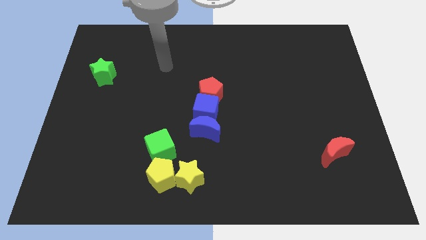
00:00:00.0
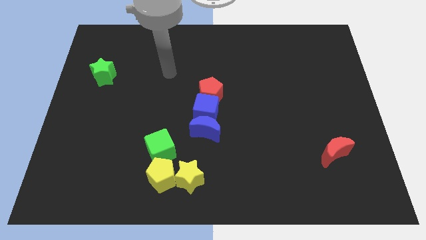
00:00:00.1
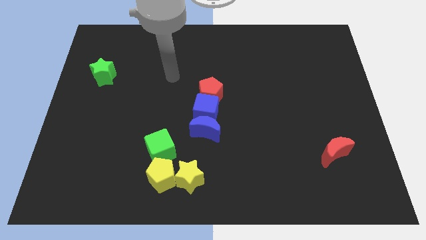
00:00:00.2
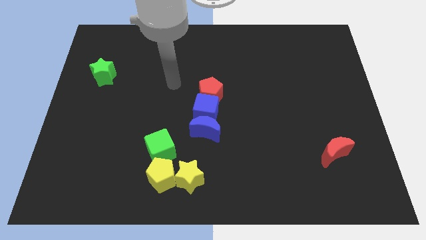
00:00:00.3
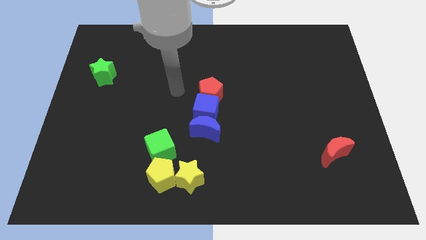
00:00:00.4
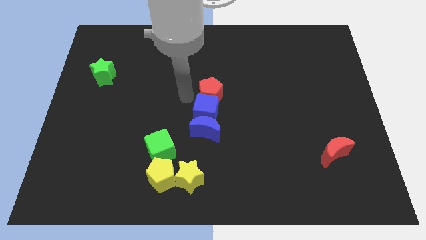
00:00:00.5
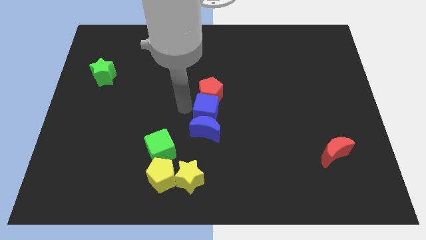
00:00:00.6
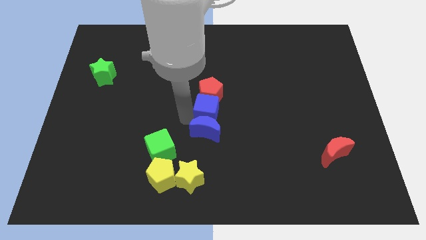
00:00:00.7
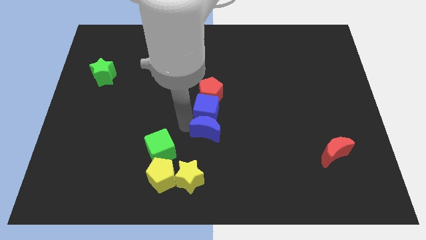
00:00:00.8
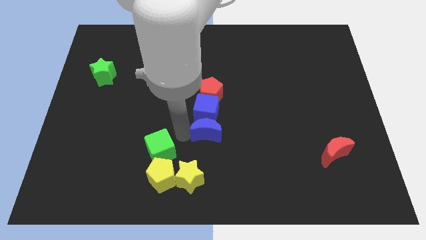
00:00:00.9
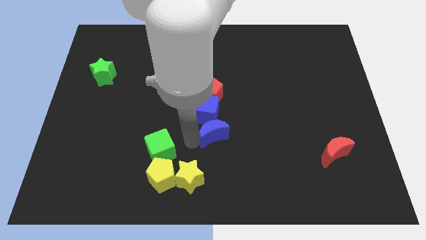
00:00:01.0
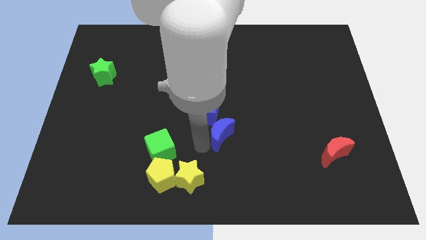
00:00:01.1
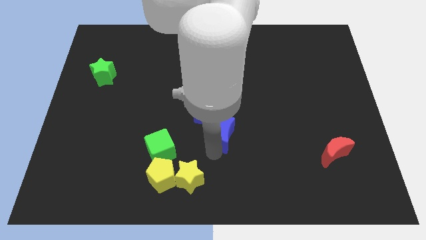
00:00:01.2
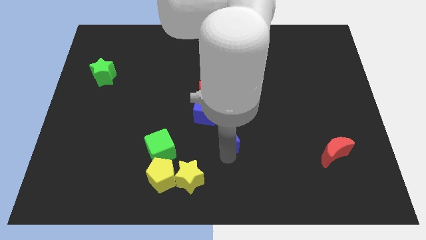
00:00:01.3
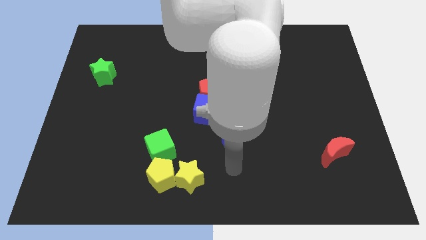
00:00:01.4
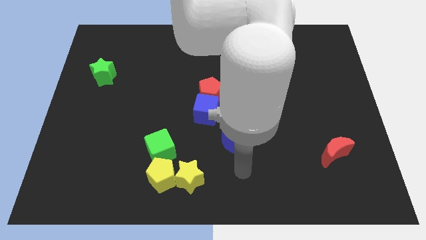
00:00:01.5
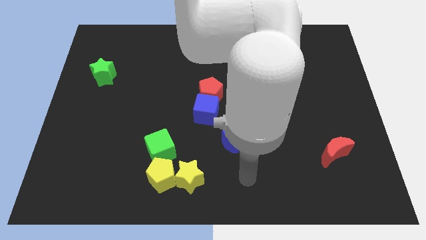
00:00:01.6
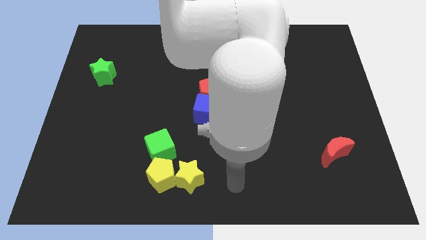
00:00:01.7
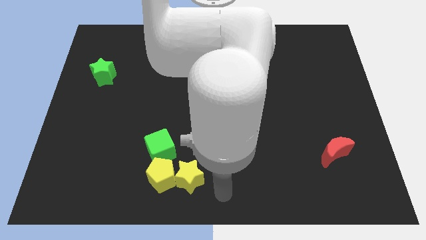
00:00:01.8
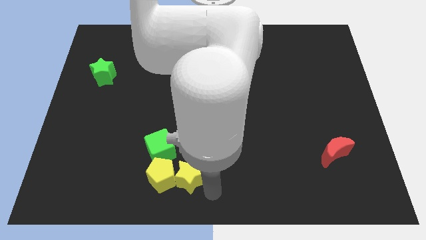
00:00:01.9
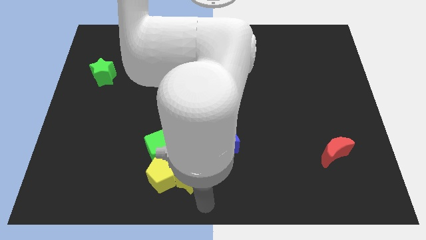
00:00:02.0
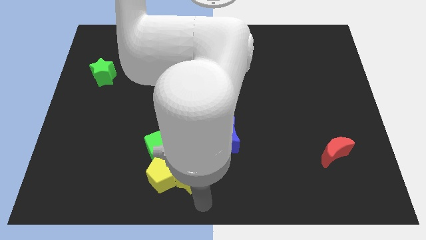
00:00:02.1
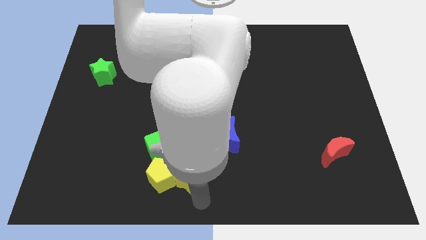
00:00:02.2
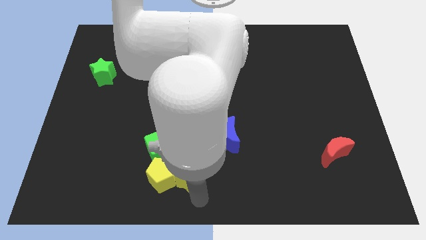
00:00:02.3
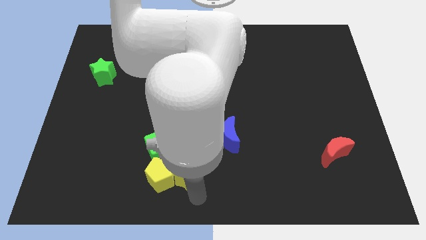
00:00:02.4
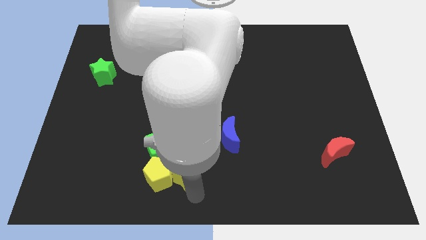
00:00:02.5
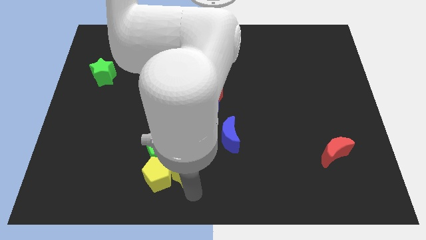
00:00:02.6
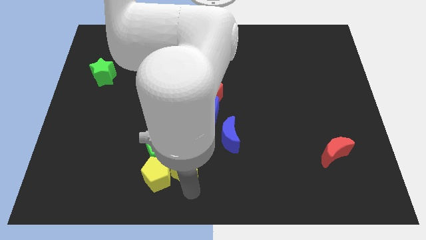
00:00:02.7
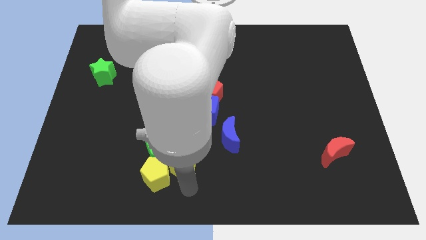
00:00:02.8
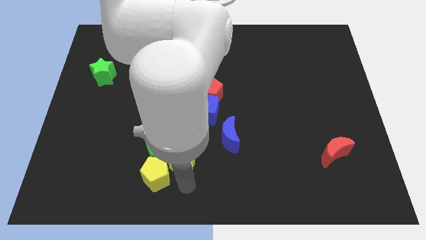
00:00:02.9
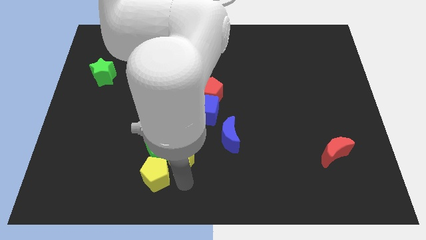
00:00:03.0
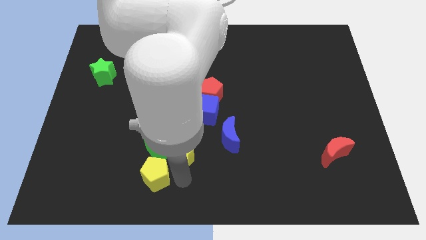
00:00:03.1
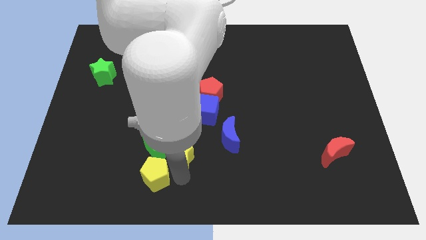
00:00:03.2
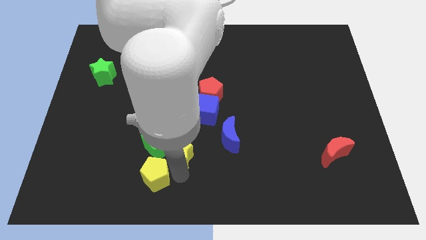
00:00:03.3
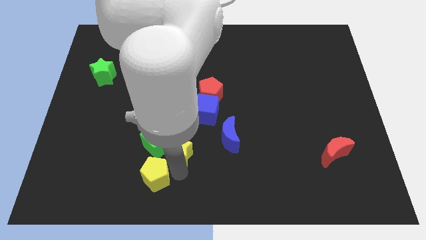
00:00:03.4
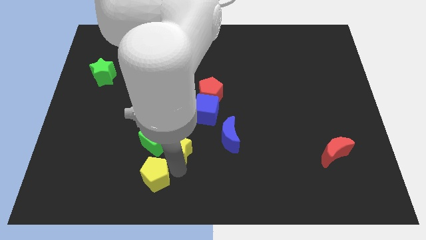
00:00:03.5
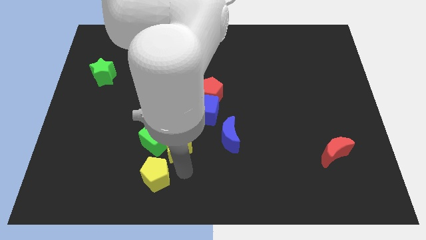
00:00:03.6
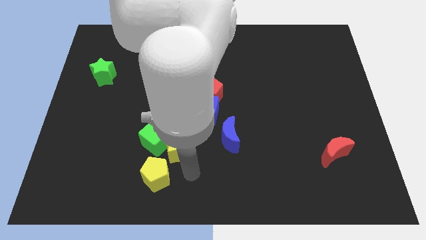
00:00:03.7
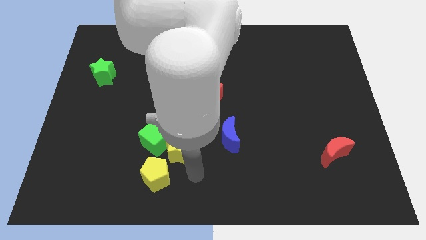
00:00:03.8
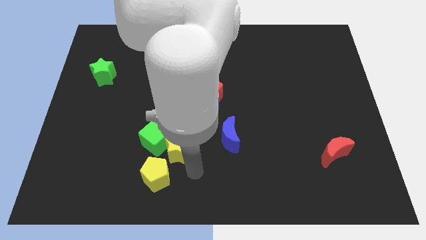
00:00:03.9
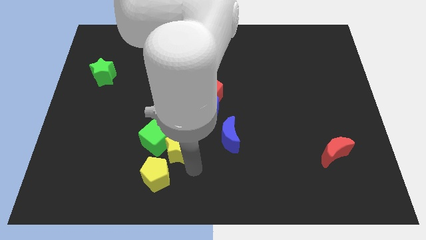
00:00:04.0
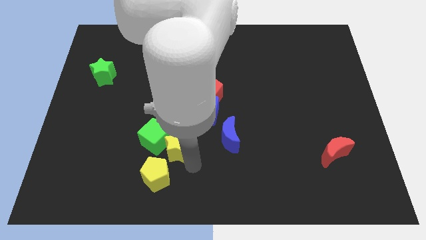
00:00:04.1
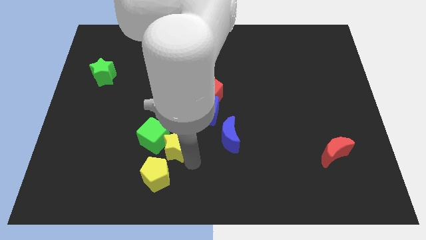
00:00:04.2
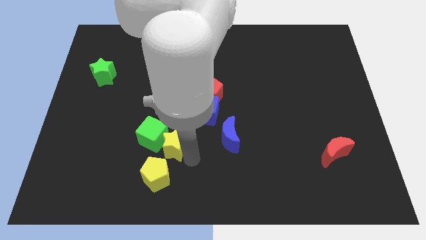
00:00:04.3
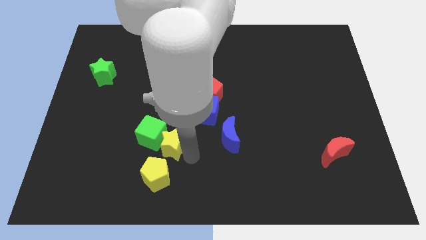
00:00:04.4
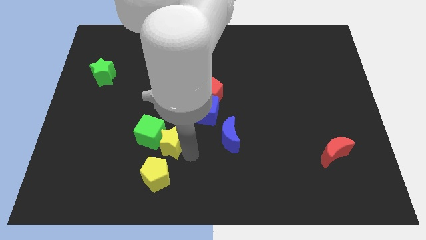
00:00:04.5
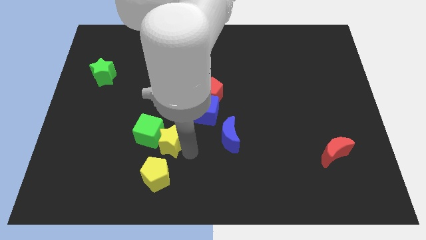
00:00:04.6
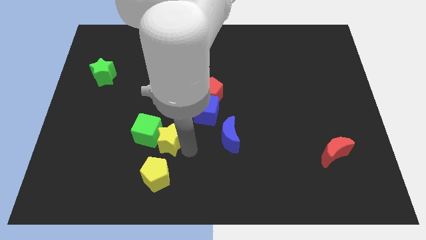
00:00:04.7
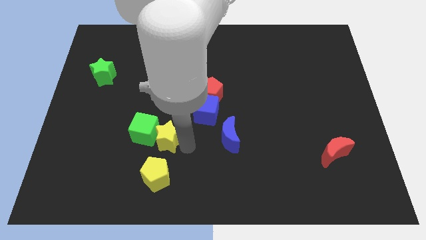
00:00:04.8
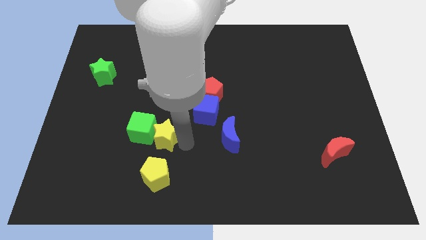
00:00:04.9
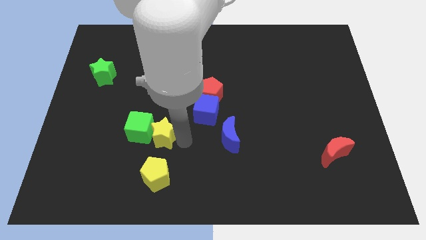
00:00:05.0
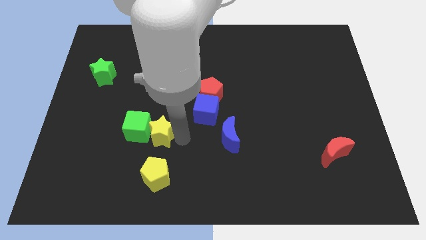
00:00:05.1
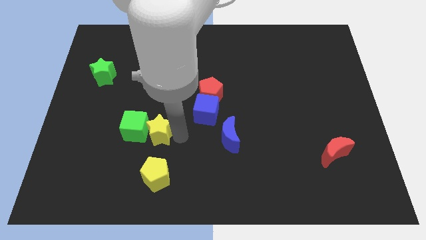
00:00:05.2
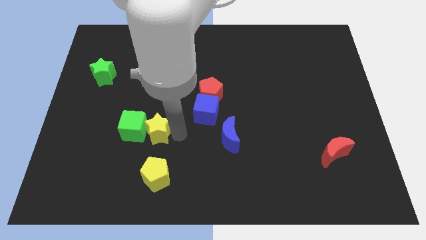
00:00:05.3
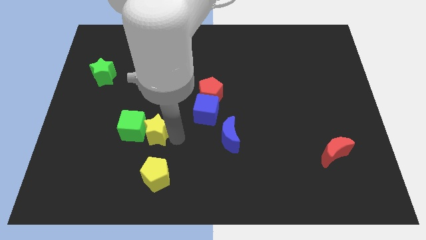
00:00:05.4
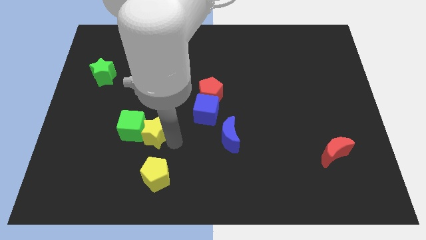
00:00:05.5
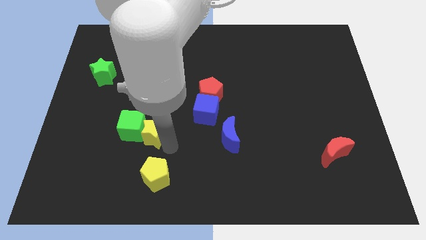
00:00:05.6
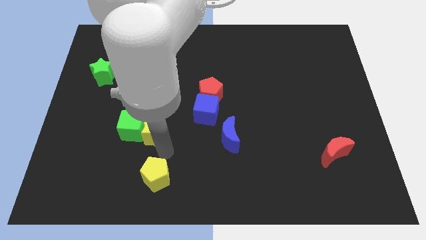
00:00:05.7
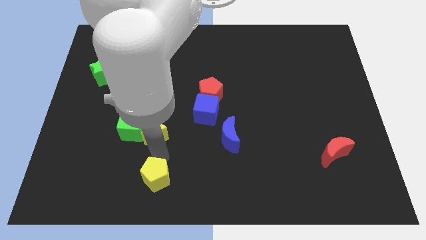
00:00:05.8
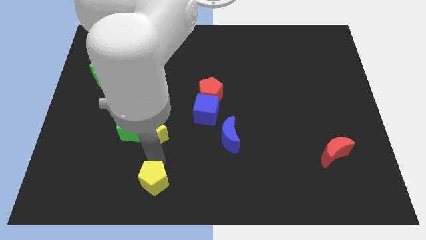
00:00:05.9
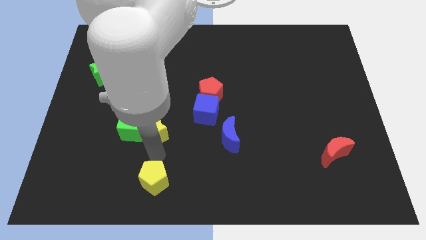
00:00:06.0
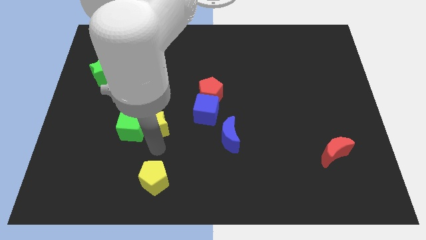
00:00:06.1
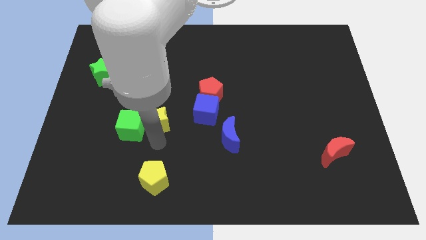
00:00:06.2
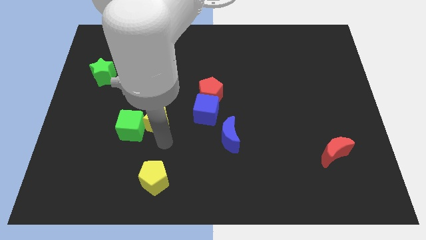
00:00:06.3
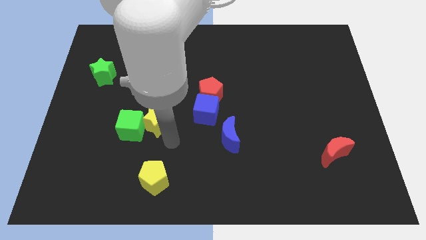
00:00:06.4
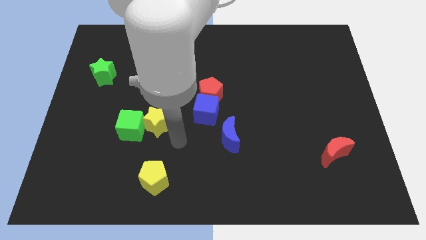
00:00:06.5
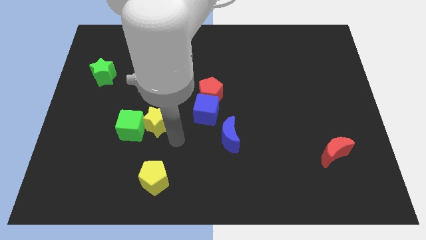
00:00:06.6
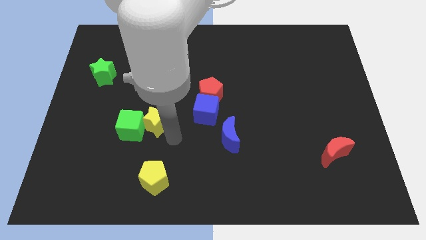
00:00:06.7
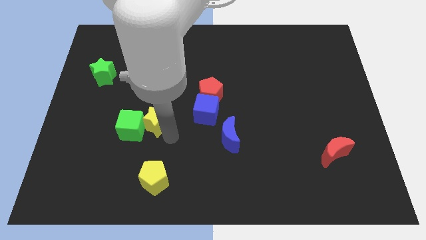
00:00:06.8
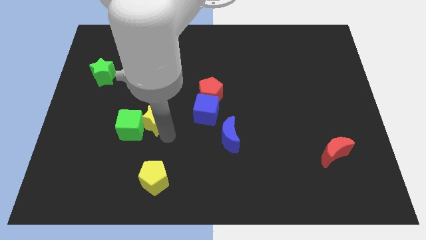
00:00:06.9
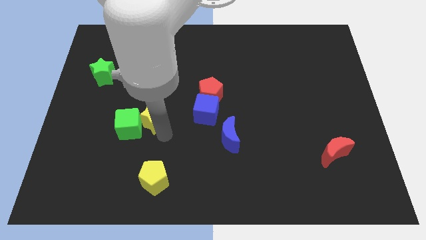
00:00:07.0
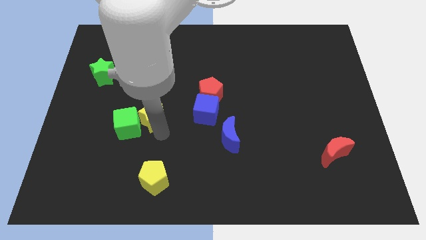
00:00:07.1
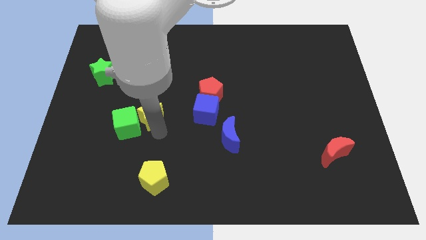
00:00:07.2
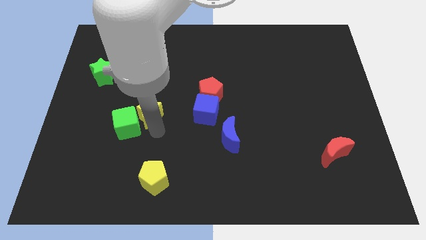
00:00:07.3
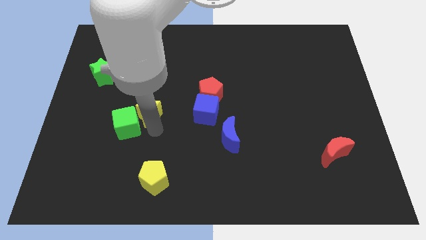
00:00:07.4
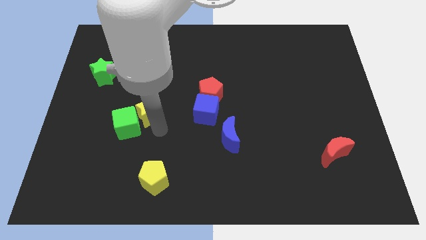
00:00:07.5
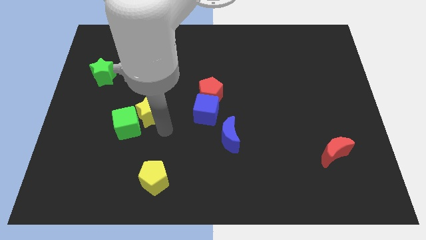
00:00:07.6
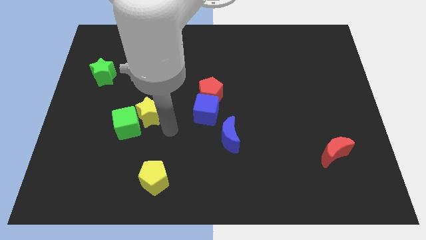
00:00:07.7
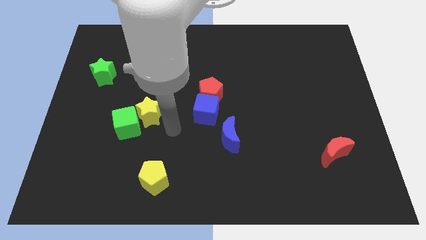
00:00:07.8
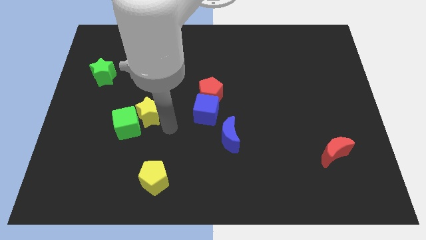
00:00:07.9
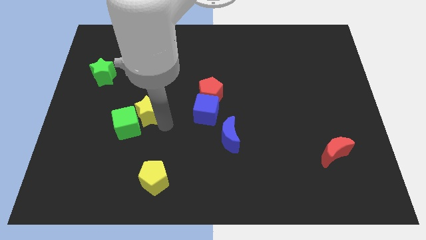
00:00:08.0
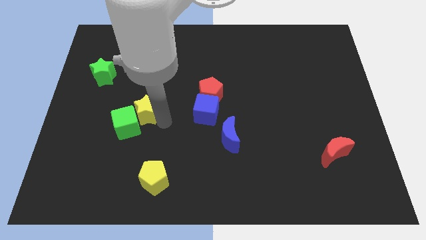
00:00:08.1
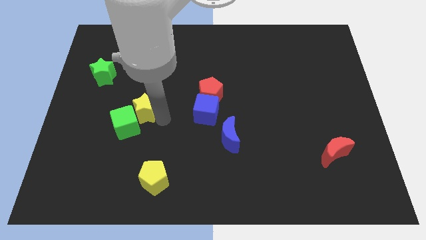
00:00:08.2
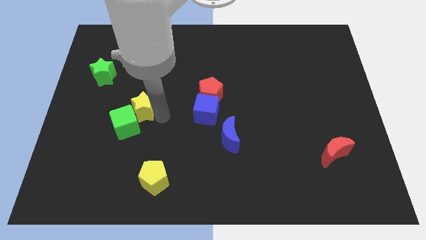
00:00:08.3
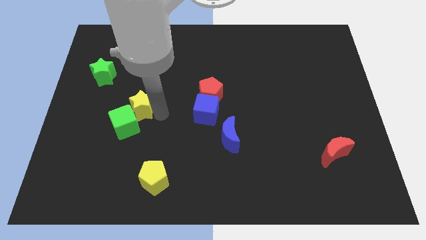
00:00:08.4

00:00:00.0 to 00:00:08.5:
move the yellow star upwards and then to the left
